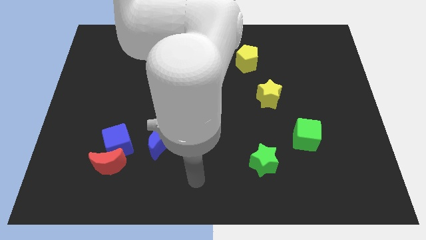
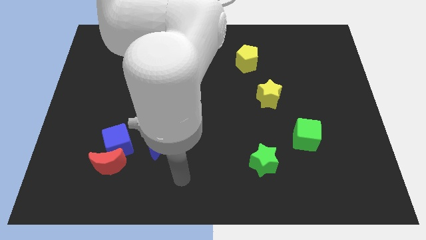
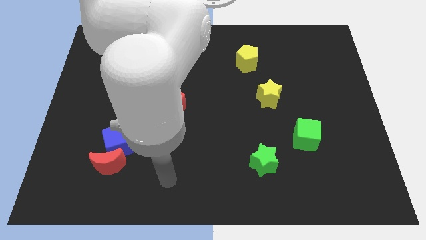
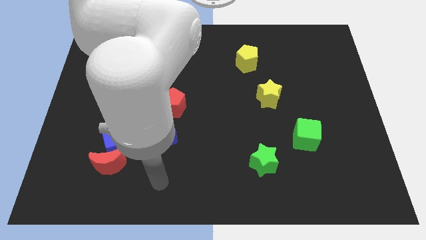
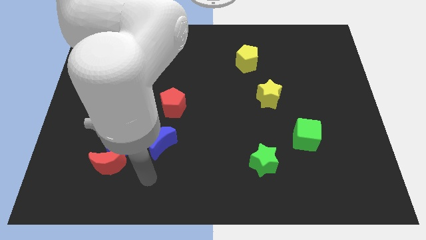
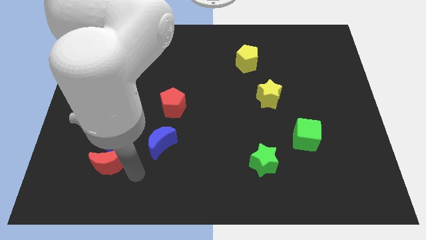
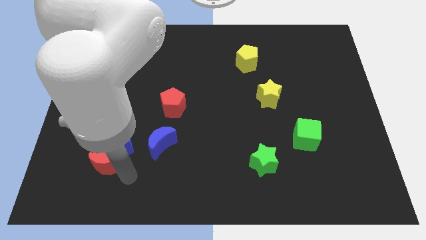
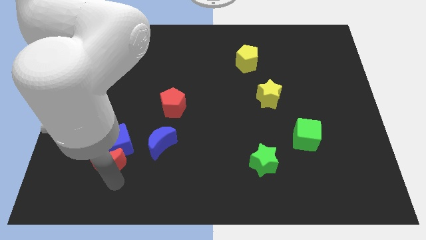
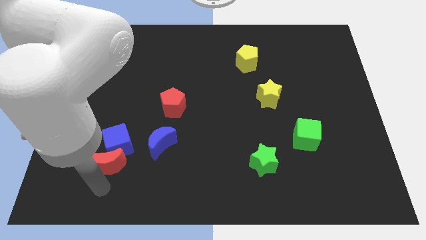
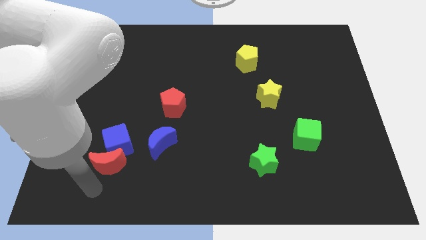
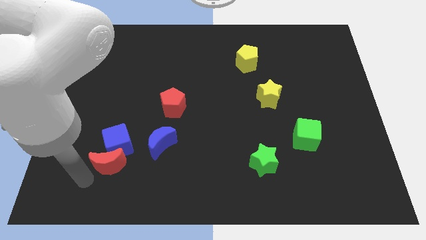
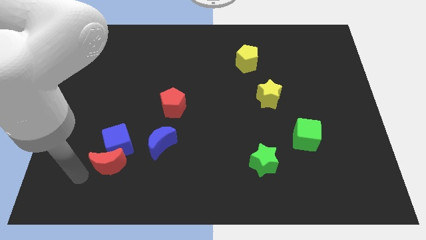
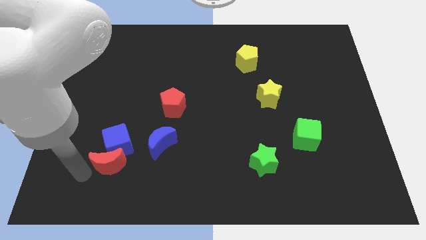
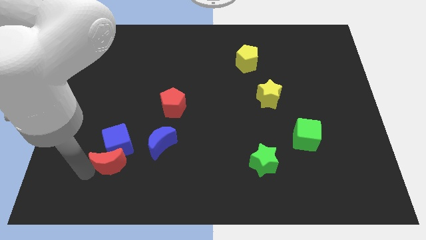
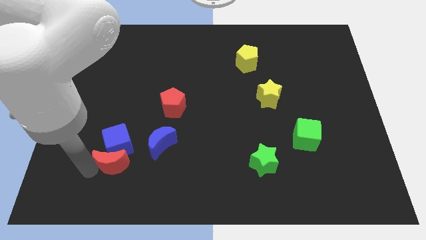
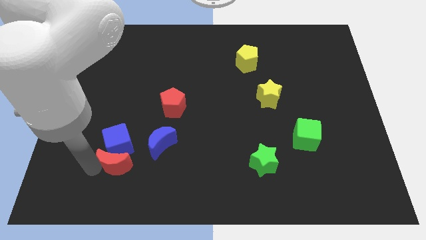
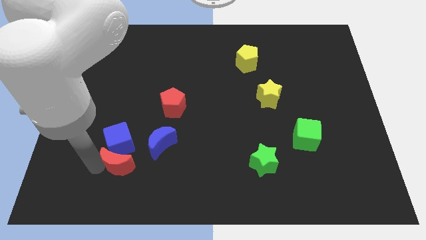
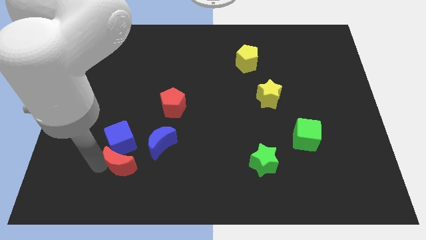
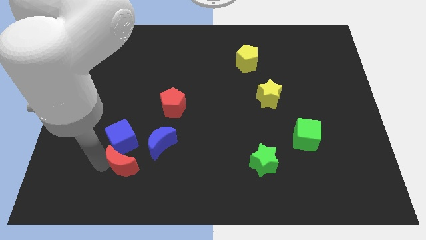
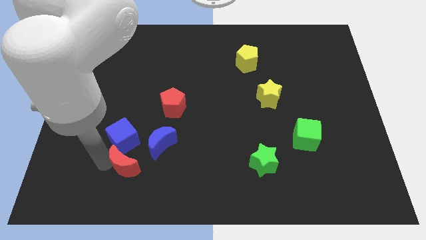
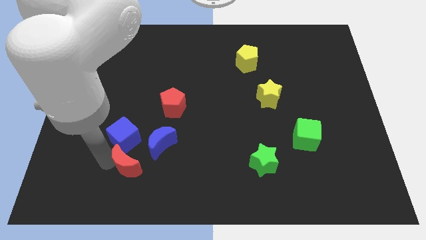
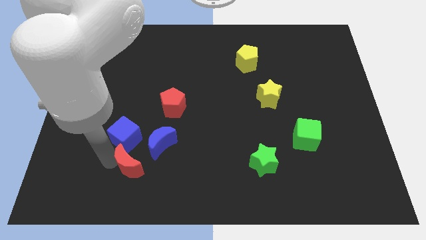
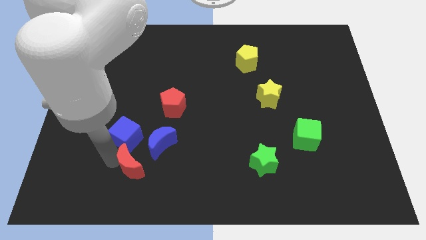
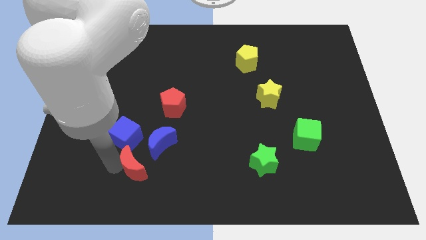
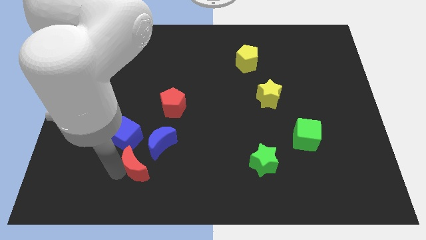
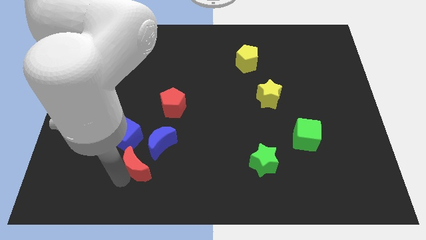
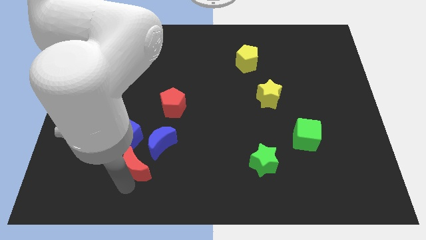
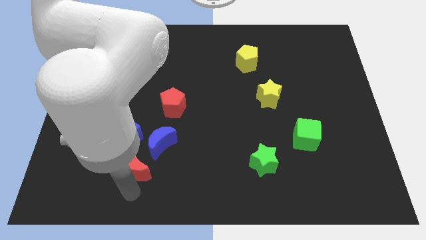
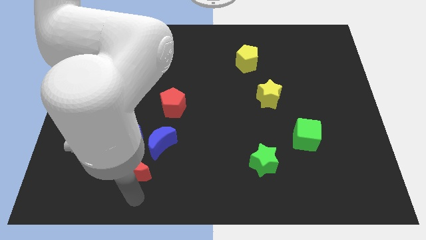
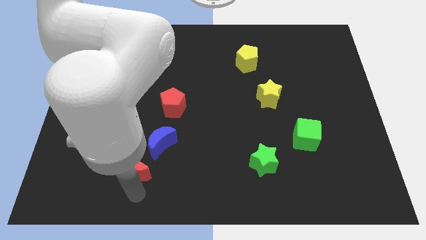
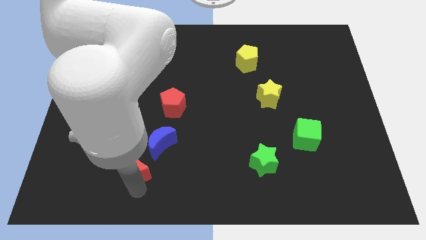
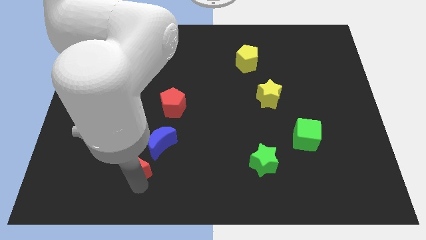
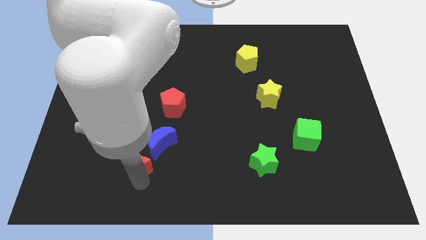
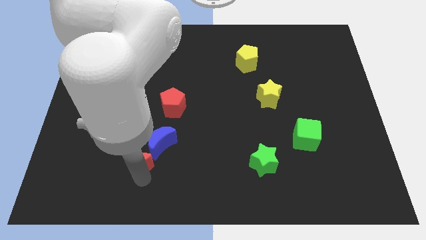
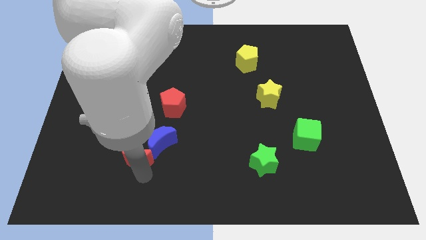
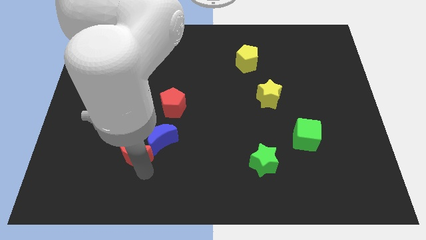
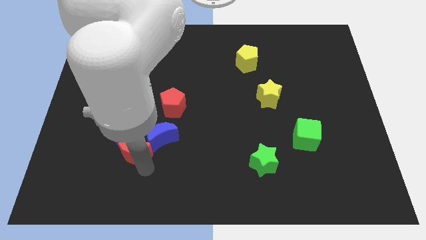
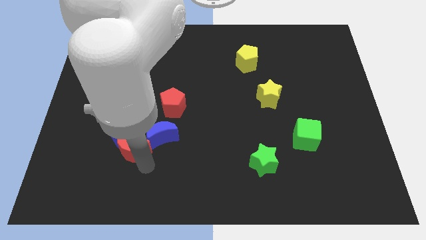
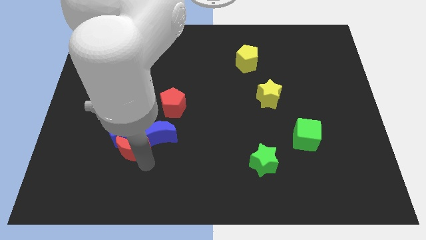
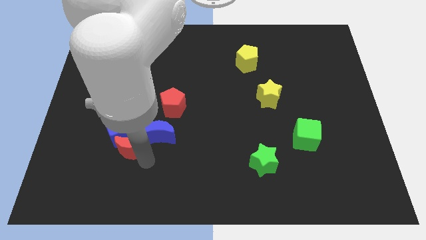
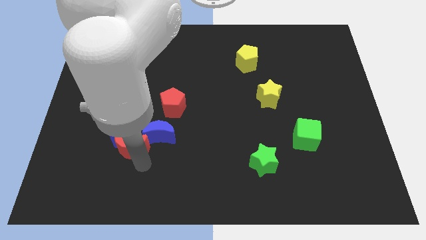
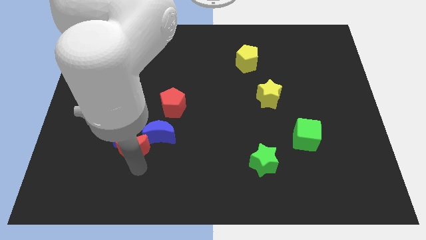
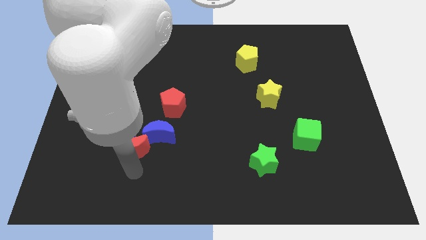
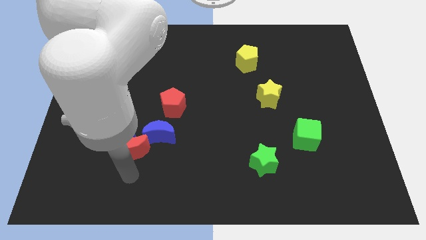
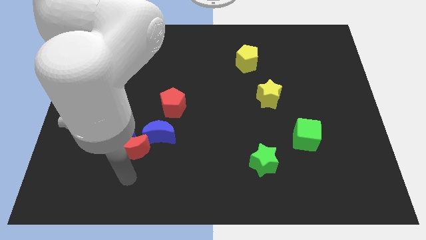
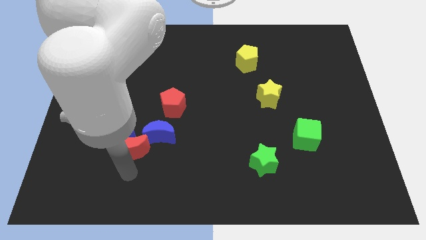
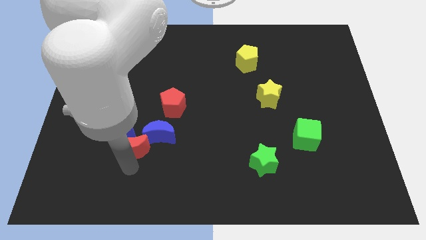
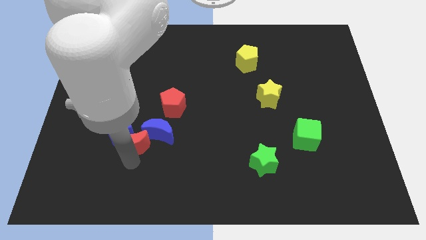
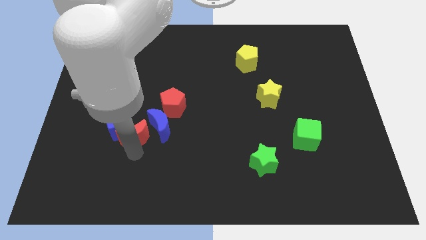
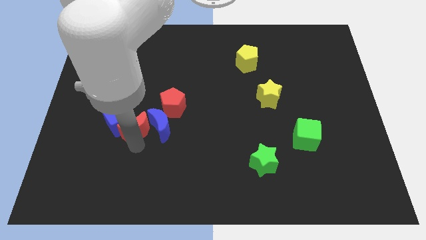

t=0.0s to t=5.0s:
push the red moon a little bit up

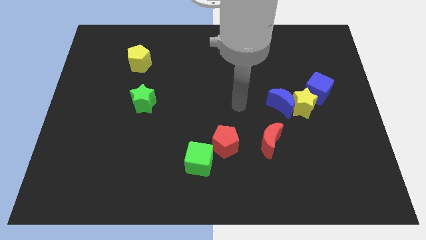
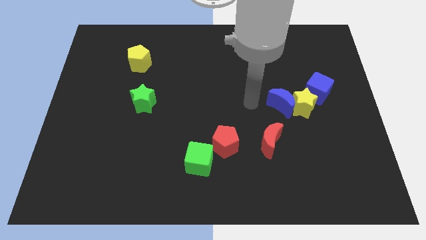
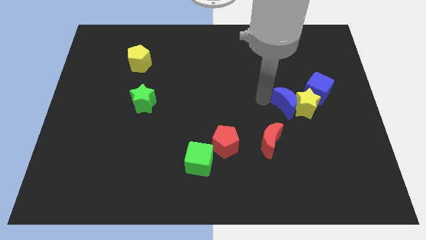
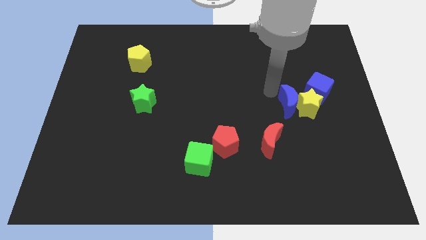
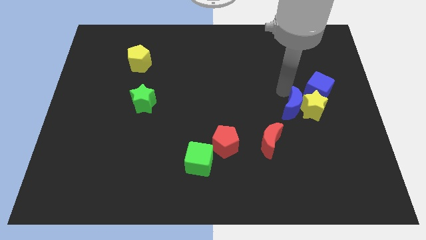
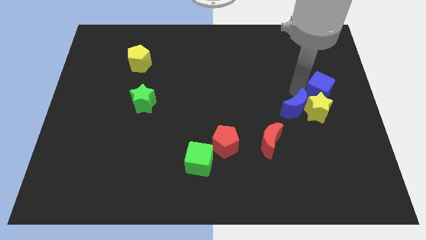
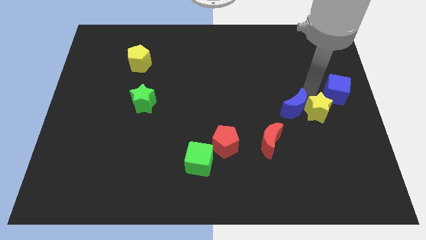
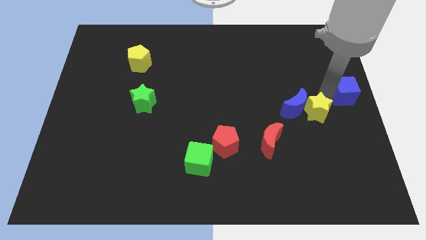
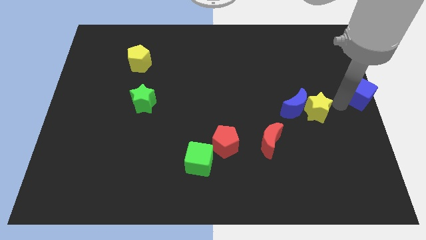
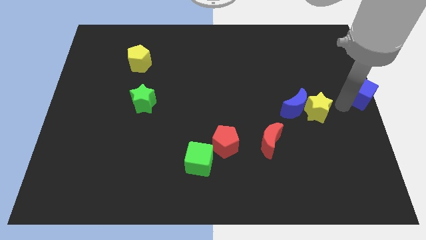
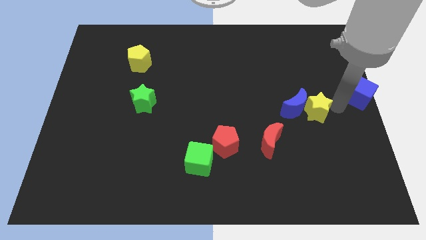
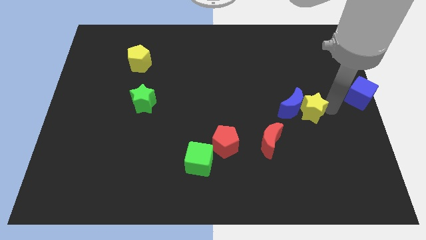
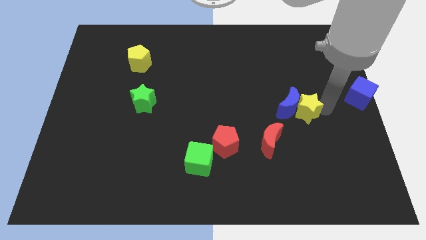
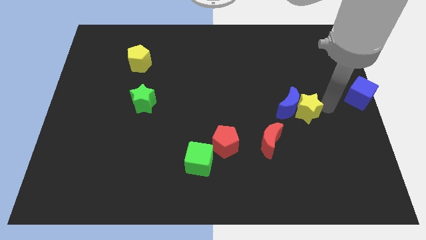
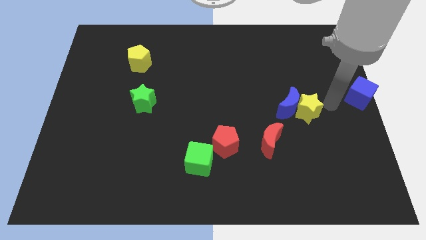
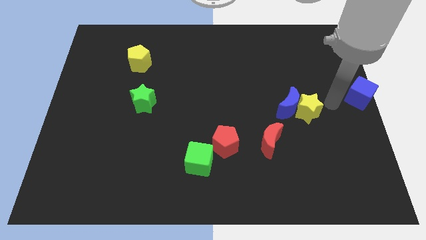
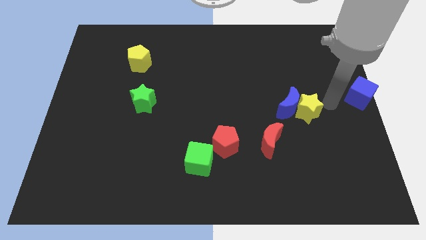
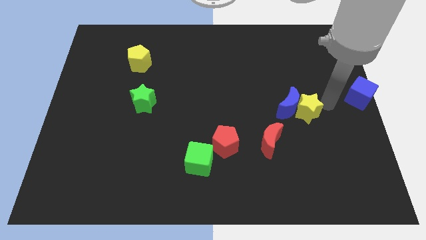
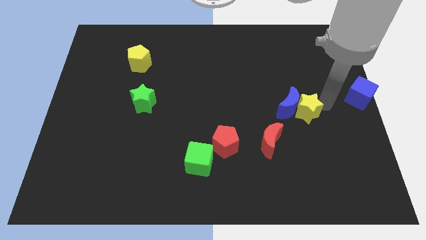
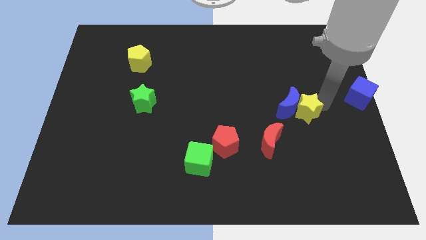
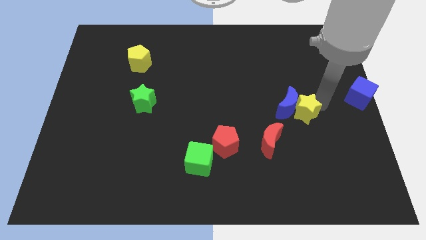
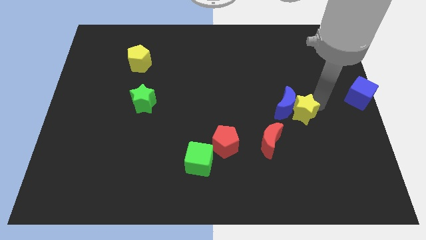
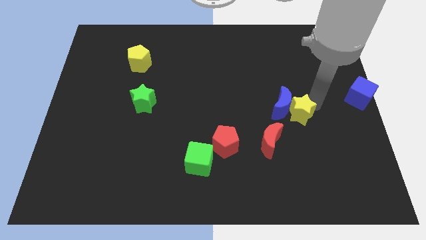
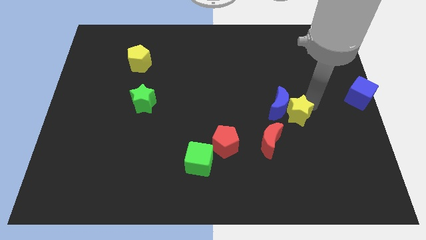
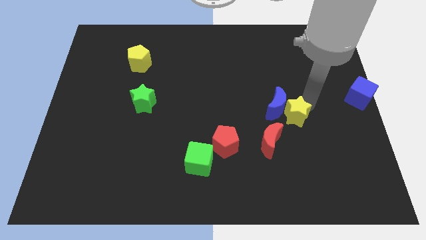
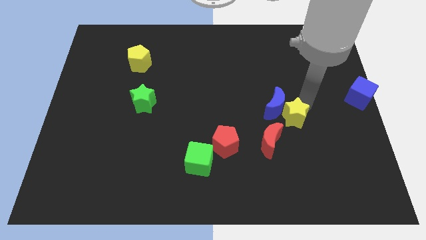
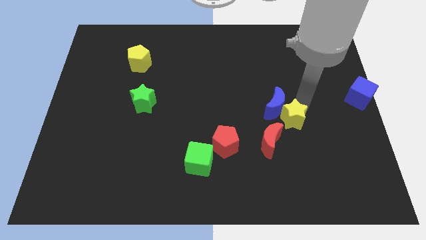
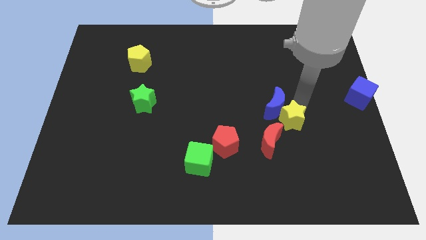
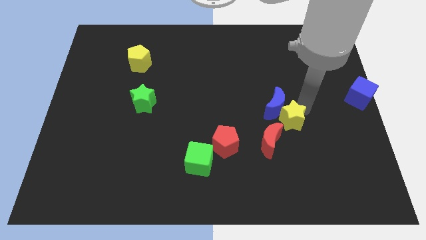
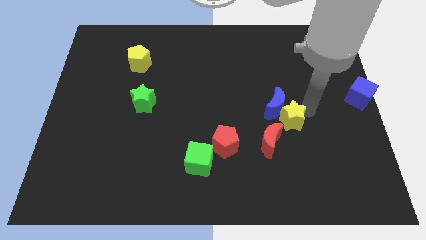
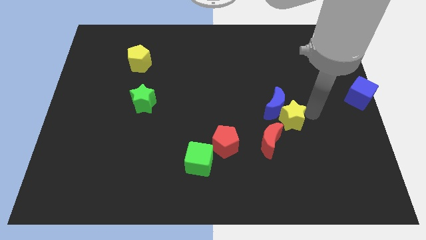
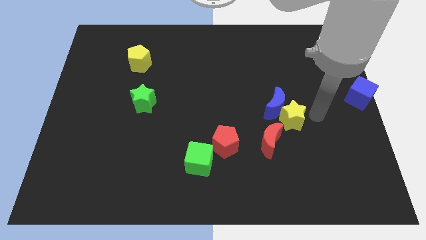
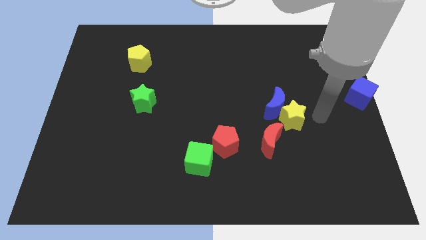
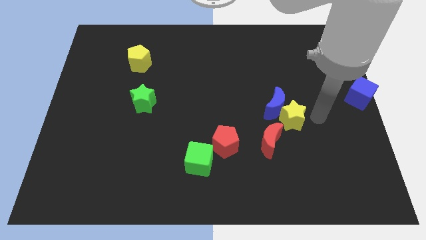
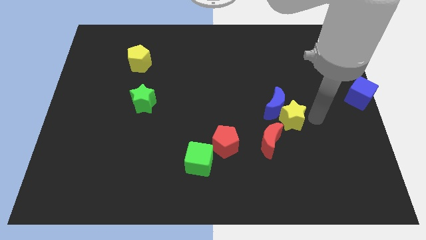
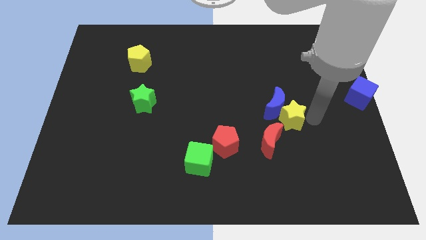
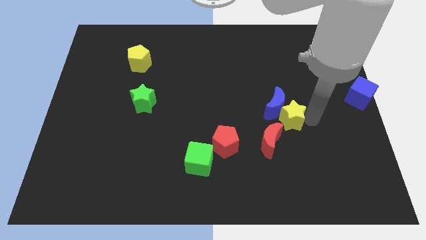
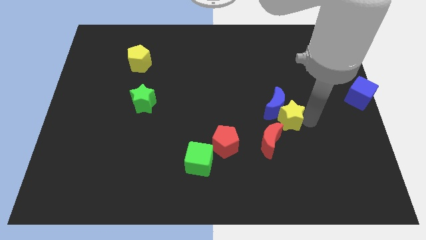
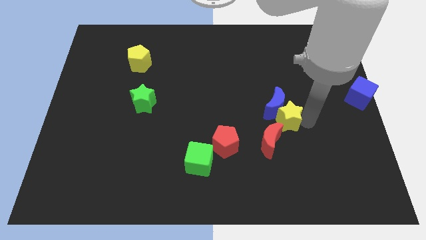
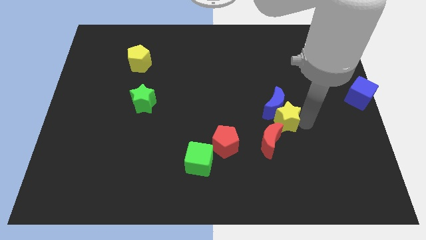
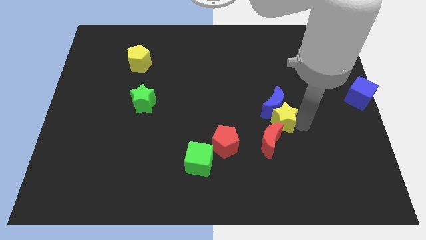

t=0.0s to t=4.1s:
slightly push the yellow star diagonally down and left
